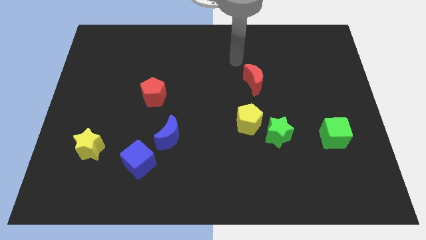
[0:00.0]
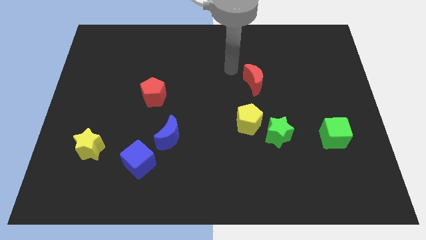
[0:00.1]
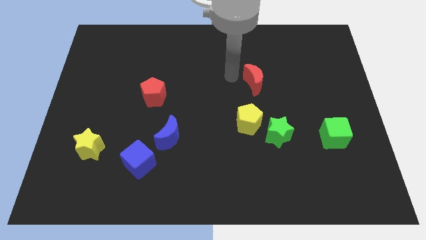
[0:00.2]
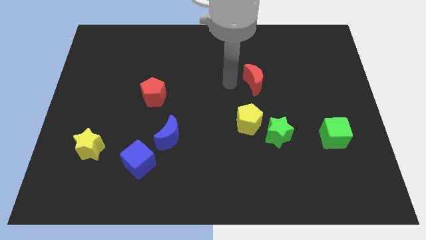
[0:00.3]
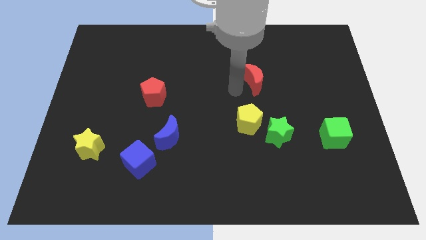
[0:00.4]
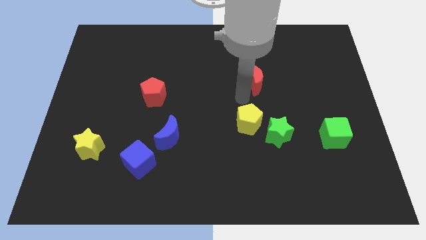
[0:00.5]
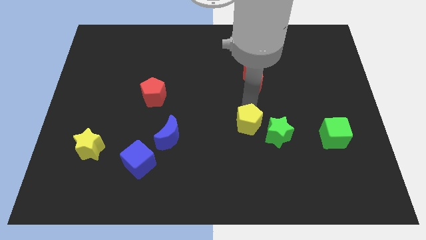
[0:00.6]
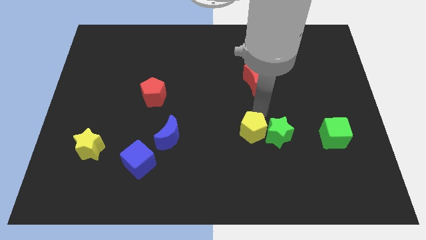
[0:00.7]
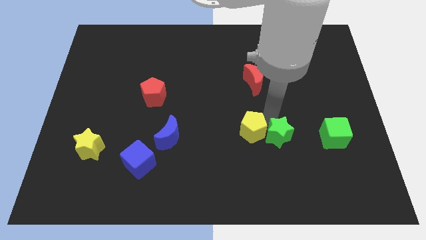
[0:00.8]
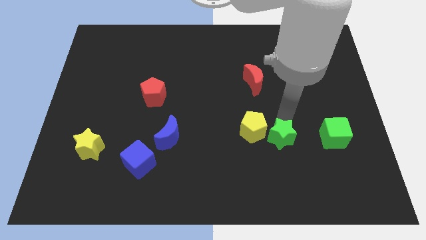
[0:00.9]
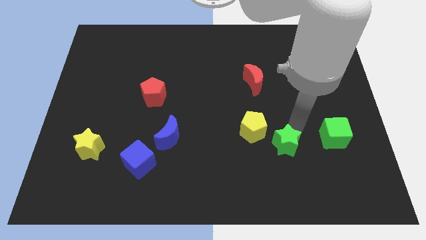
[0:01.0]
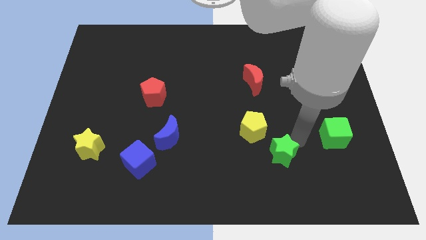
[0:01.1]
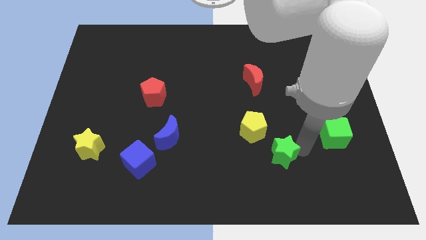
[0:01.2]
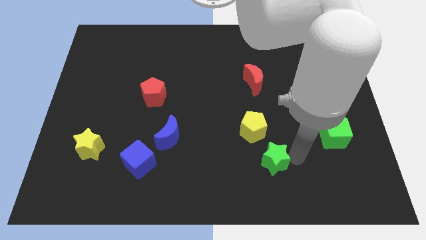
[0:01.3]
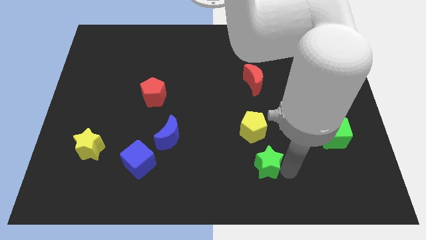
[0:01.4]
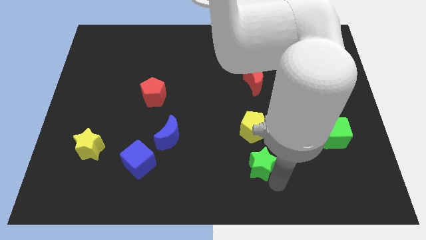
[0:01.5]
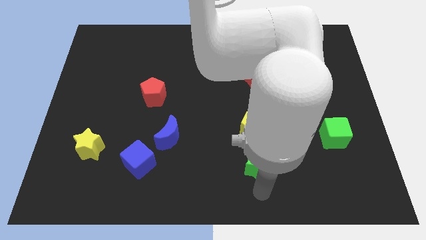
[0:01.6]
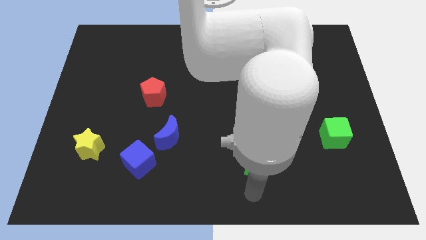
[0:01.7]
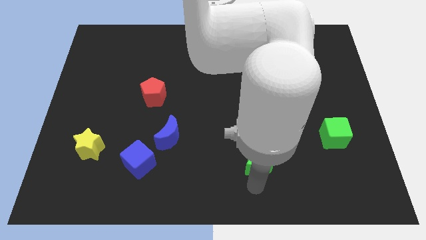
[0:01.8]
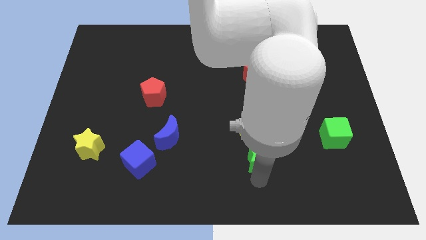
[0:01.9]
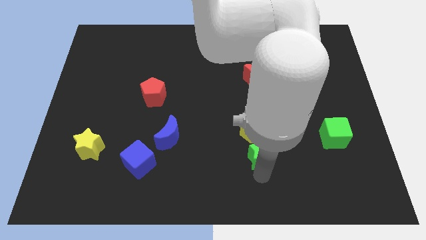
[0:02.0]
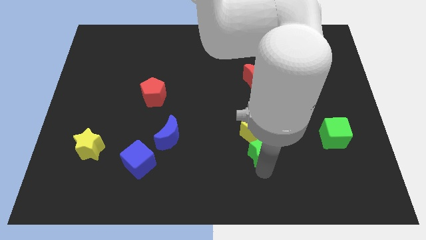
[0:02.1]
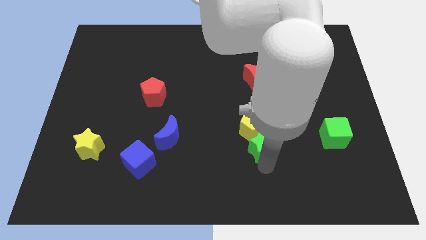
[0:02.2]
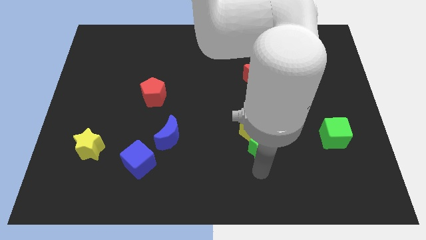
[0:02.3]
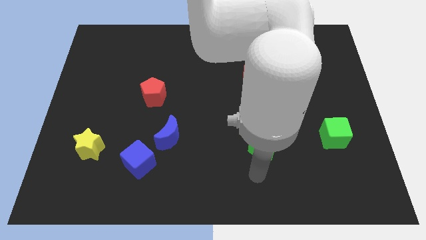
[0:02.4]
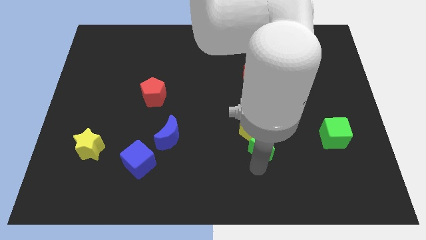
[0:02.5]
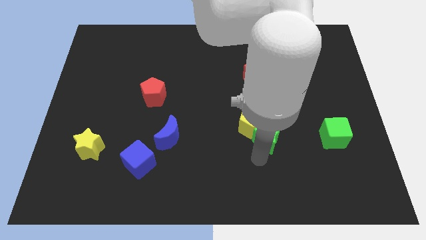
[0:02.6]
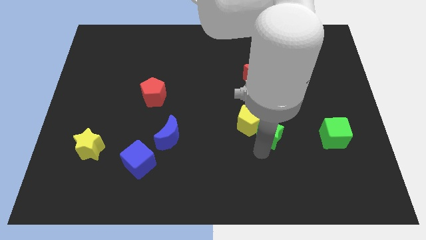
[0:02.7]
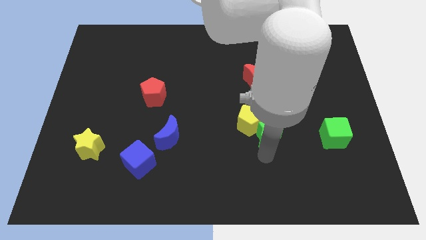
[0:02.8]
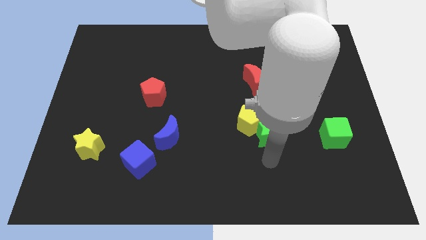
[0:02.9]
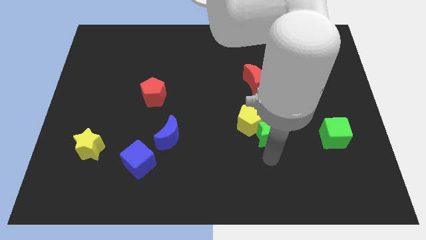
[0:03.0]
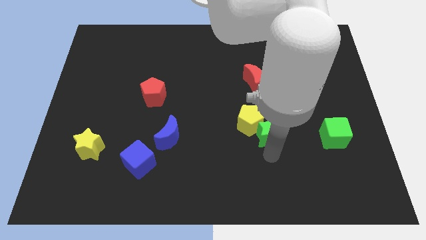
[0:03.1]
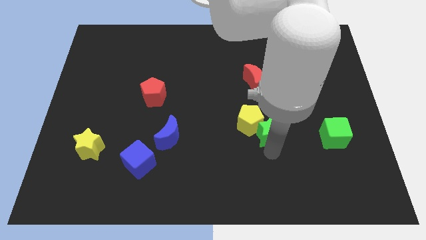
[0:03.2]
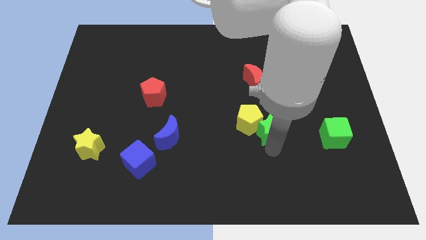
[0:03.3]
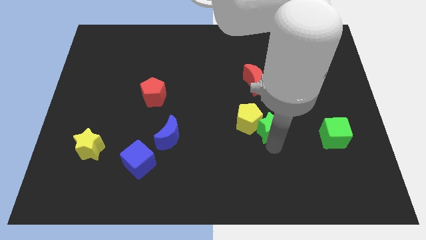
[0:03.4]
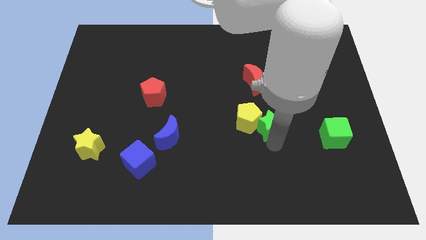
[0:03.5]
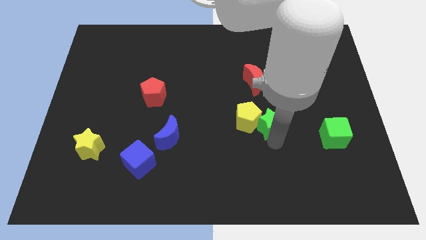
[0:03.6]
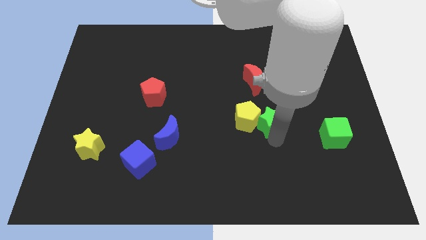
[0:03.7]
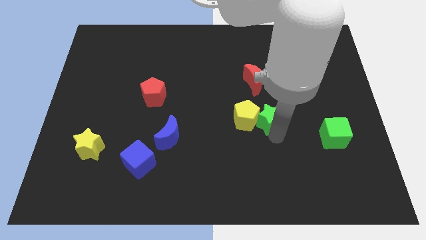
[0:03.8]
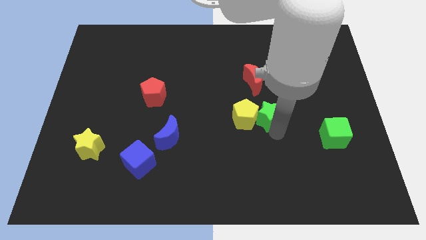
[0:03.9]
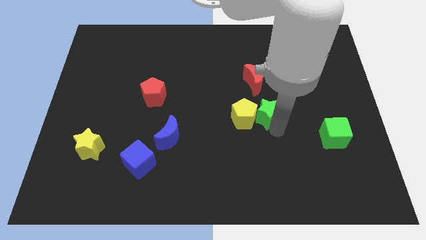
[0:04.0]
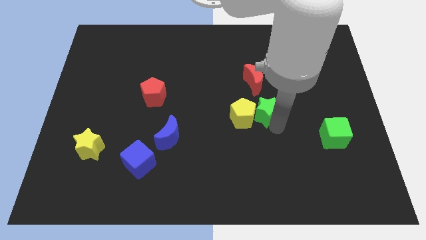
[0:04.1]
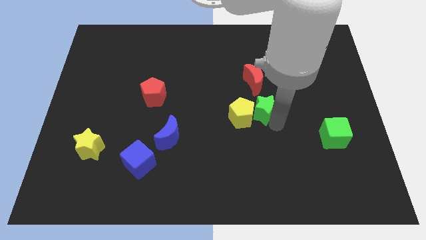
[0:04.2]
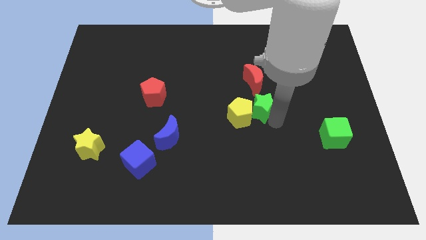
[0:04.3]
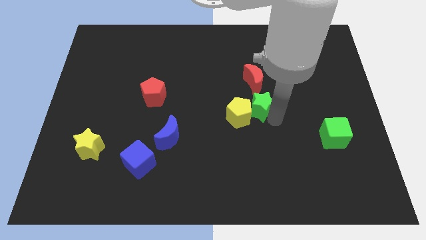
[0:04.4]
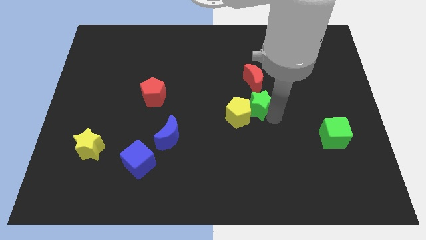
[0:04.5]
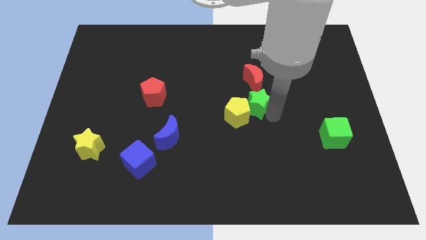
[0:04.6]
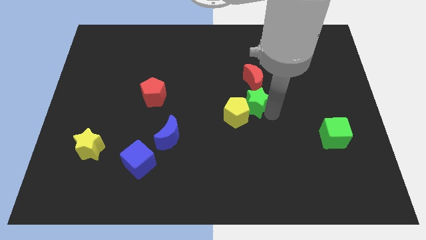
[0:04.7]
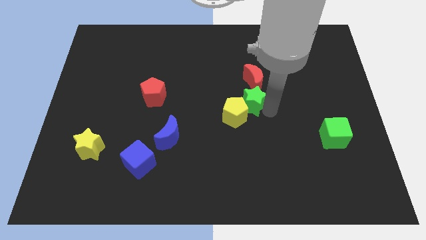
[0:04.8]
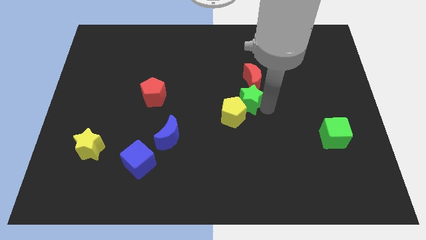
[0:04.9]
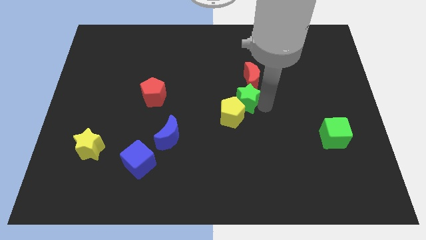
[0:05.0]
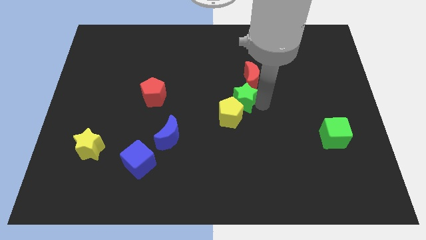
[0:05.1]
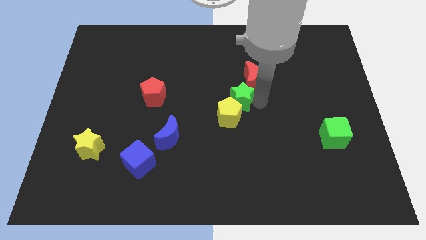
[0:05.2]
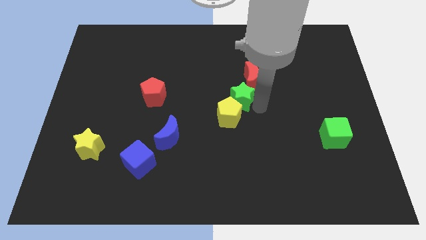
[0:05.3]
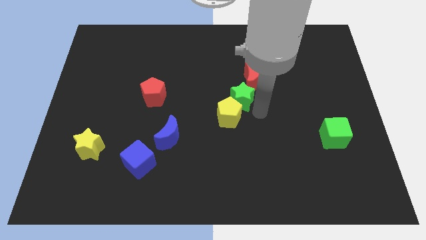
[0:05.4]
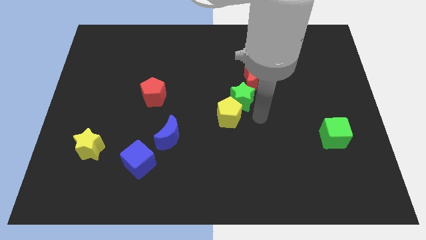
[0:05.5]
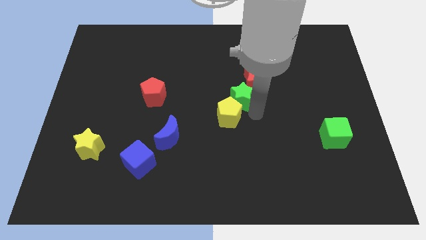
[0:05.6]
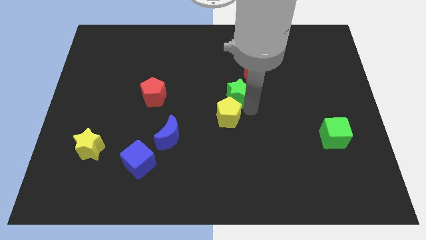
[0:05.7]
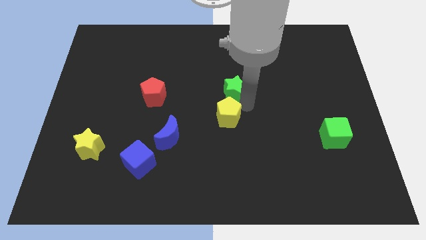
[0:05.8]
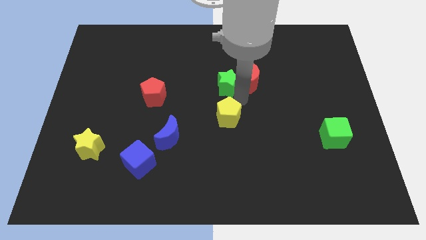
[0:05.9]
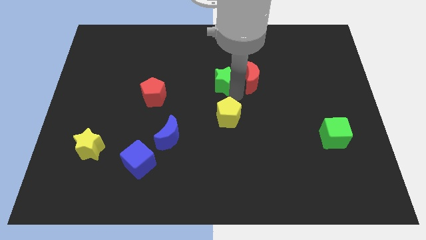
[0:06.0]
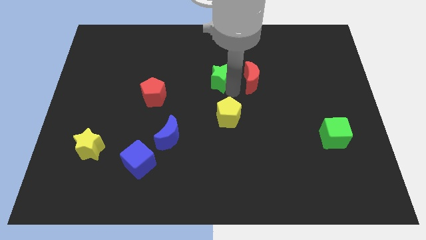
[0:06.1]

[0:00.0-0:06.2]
push the green star upwards and left diagonally

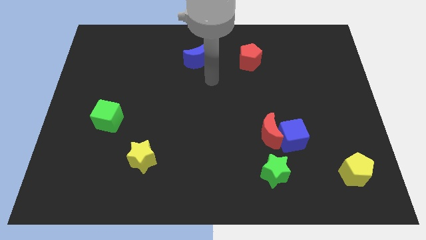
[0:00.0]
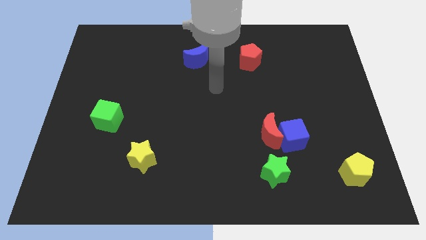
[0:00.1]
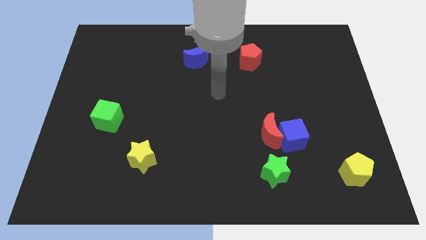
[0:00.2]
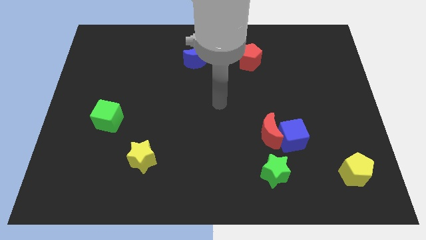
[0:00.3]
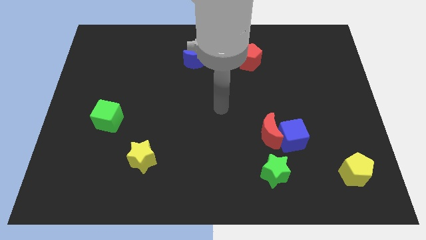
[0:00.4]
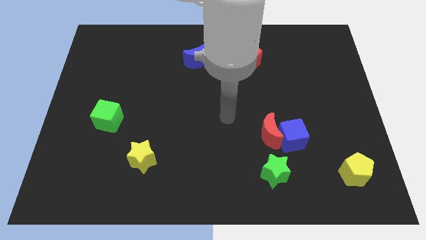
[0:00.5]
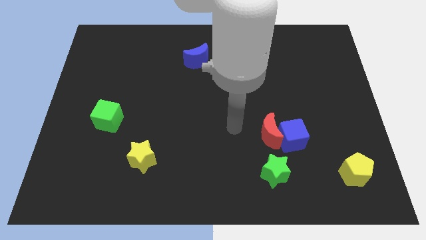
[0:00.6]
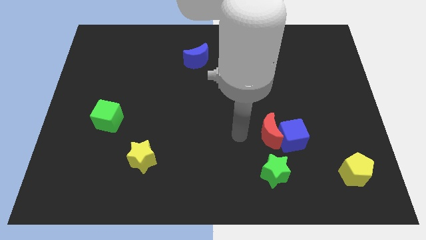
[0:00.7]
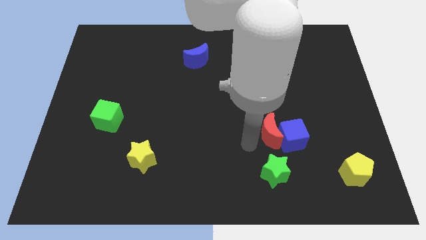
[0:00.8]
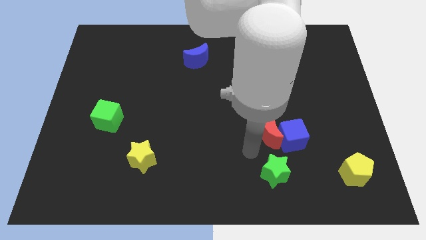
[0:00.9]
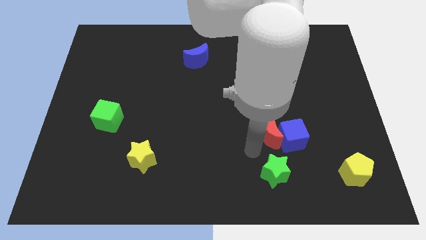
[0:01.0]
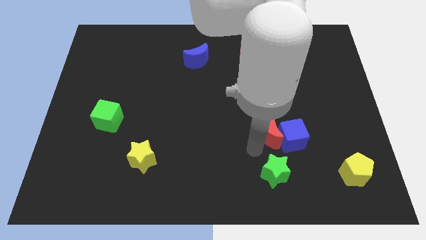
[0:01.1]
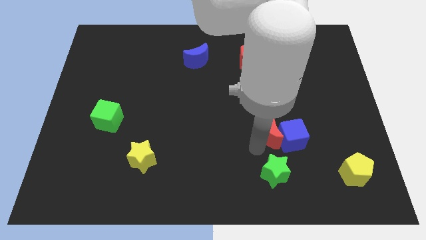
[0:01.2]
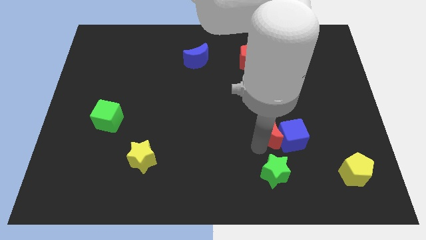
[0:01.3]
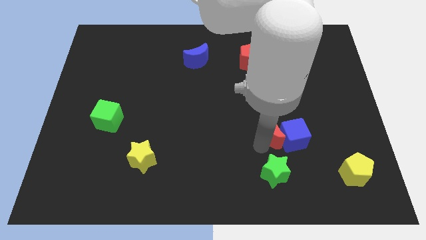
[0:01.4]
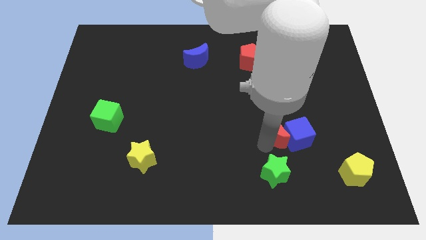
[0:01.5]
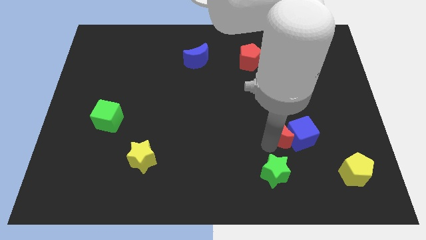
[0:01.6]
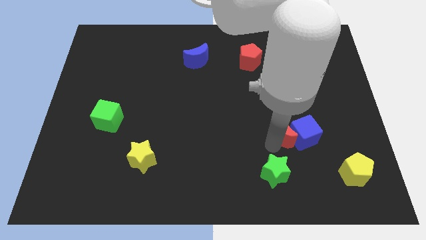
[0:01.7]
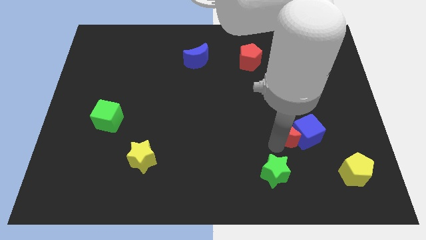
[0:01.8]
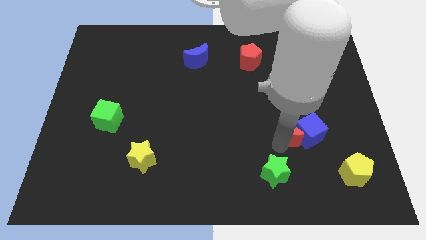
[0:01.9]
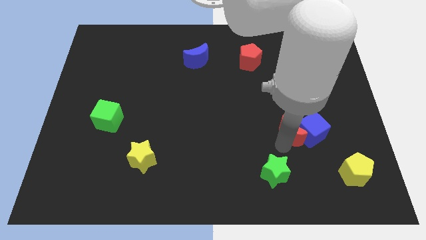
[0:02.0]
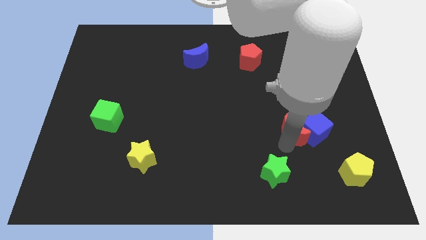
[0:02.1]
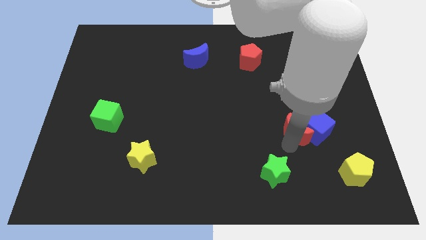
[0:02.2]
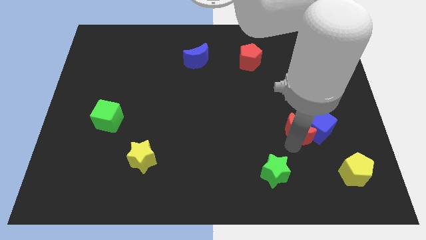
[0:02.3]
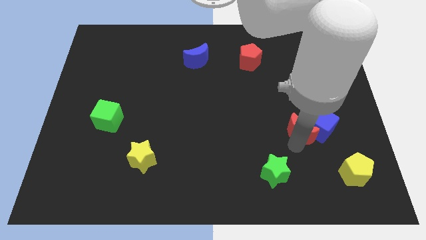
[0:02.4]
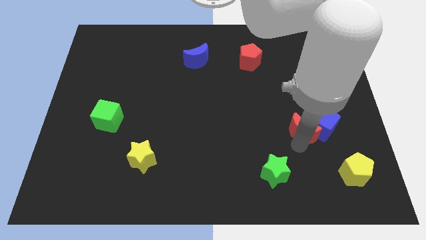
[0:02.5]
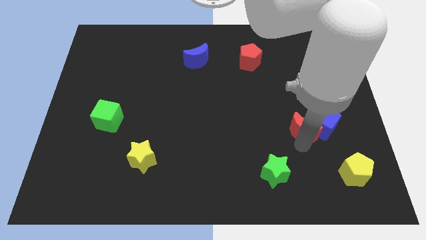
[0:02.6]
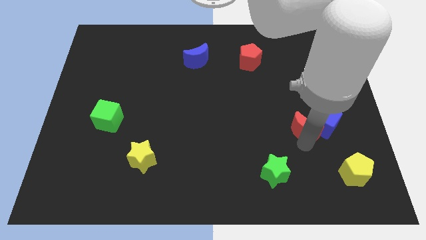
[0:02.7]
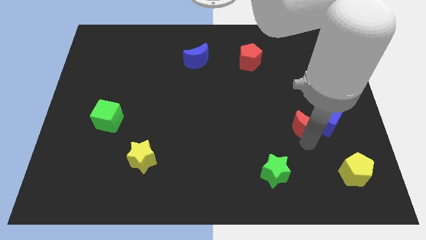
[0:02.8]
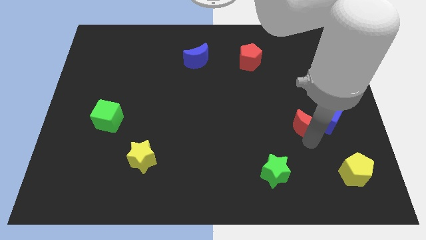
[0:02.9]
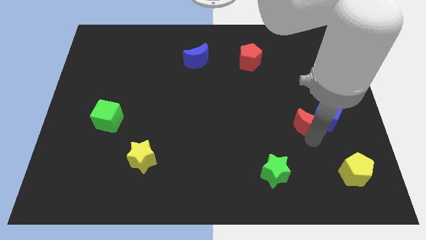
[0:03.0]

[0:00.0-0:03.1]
slightly move the red moon upwards and to the right diagonally
